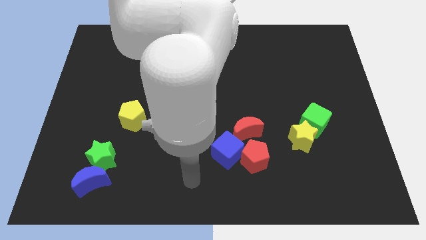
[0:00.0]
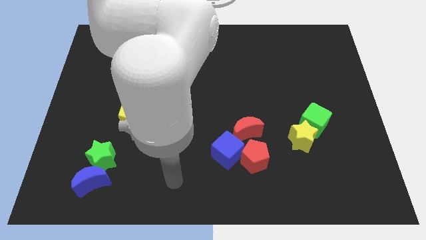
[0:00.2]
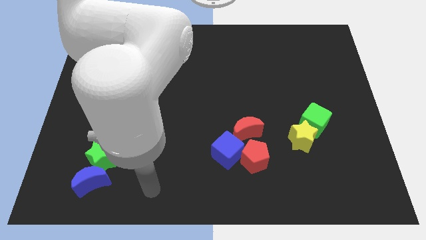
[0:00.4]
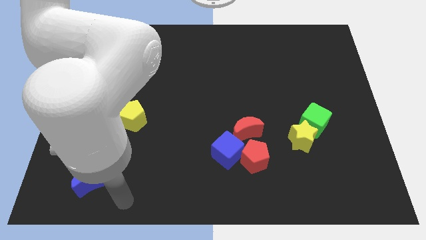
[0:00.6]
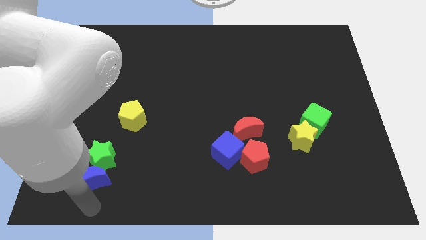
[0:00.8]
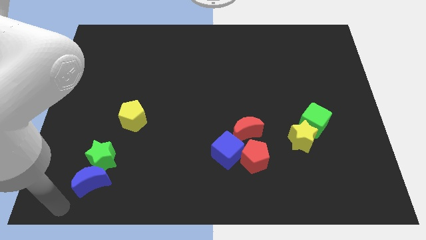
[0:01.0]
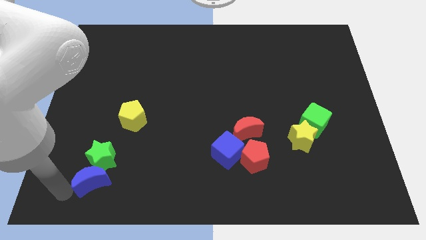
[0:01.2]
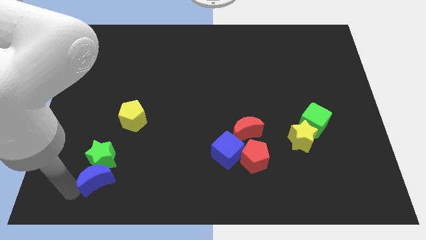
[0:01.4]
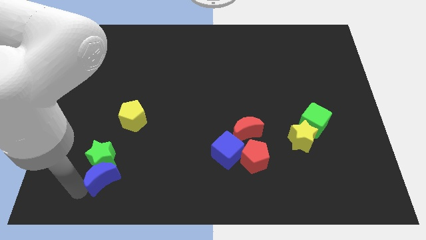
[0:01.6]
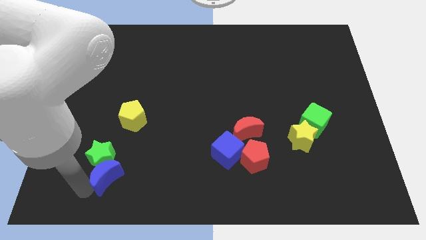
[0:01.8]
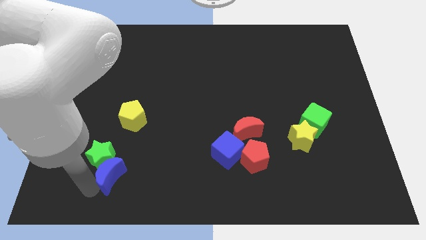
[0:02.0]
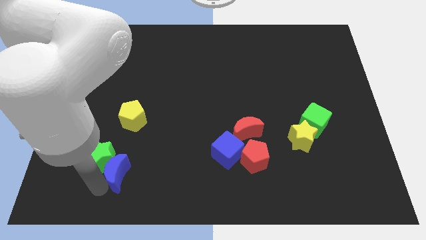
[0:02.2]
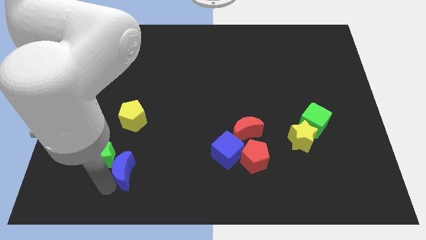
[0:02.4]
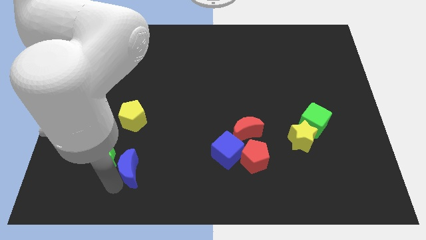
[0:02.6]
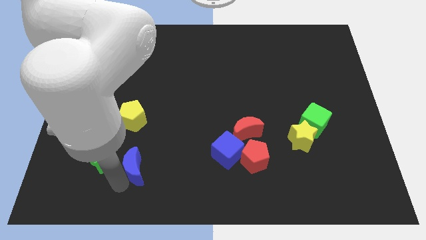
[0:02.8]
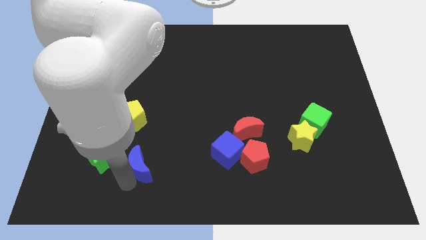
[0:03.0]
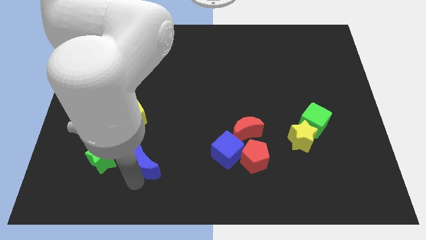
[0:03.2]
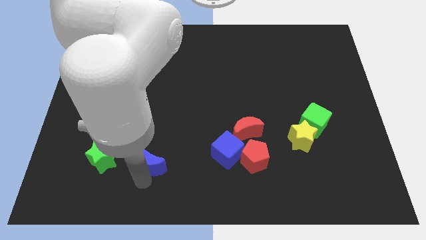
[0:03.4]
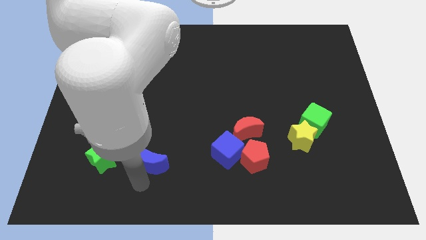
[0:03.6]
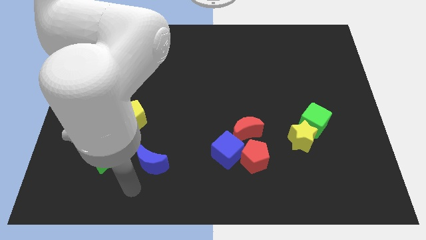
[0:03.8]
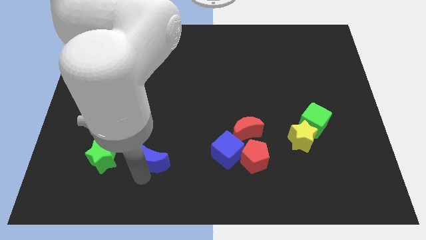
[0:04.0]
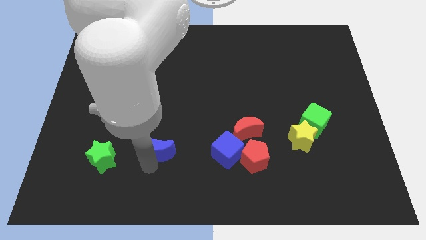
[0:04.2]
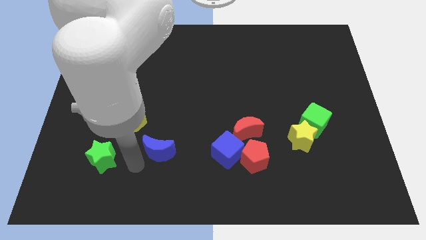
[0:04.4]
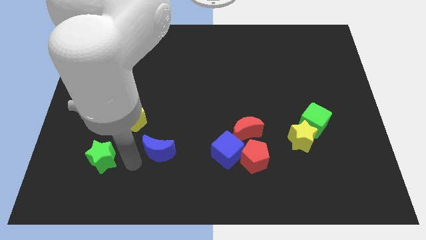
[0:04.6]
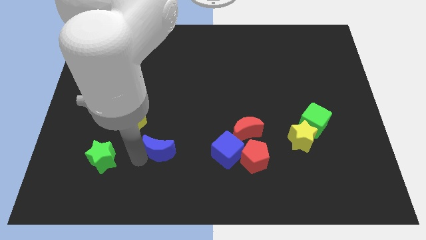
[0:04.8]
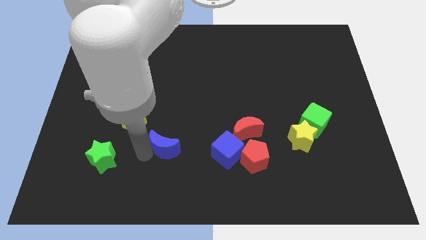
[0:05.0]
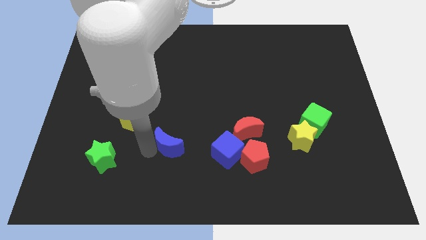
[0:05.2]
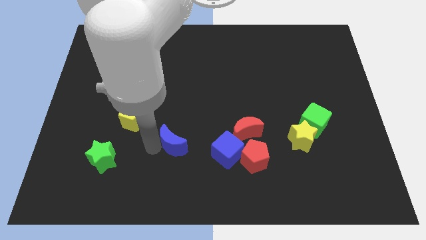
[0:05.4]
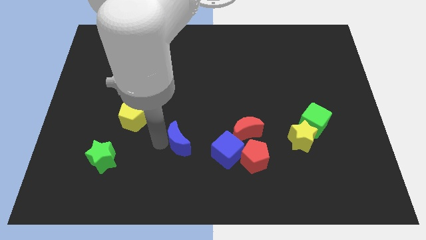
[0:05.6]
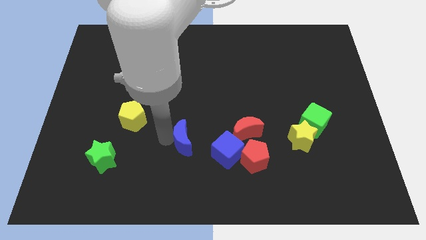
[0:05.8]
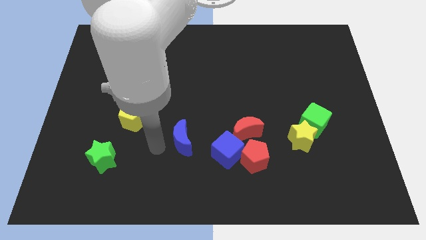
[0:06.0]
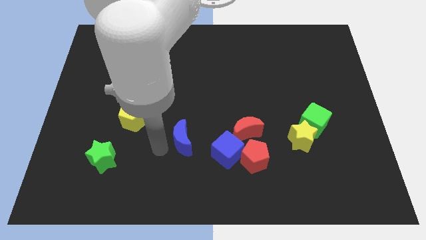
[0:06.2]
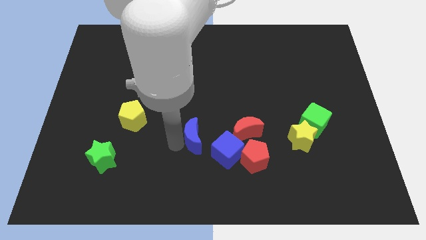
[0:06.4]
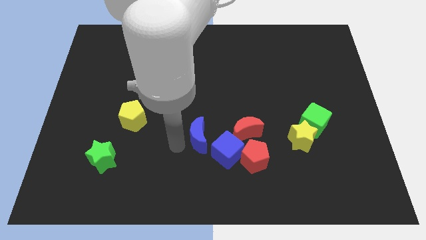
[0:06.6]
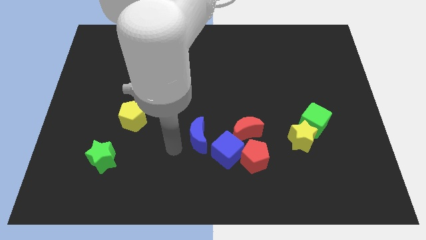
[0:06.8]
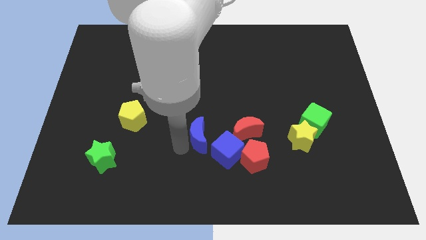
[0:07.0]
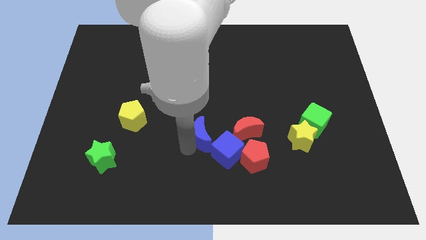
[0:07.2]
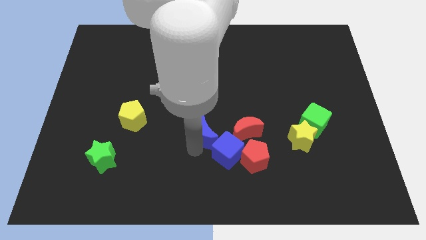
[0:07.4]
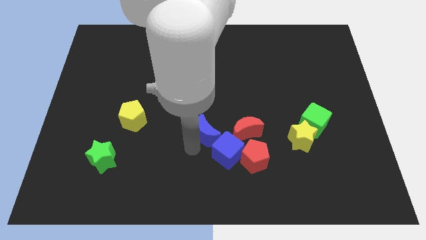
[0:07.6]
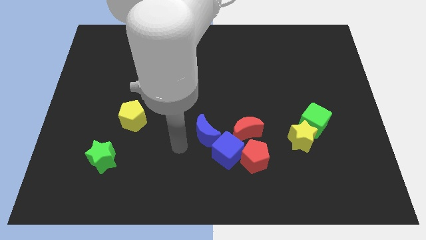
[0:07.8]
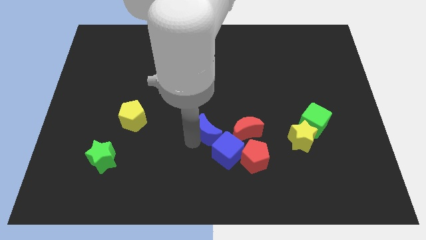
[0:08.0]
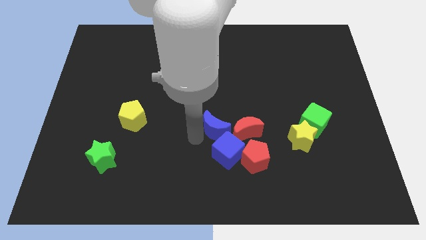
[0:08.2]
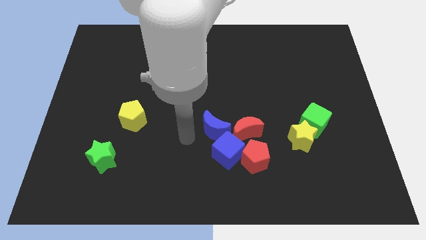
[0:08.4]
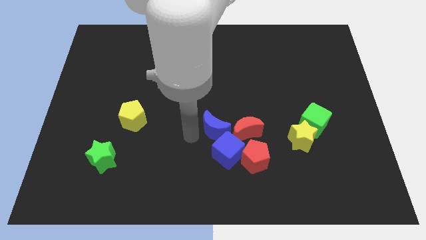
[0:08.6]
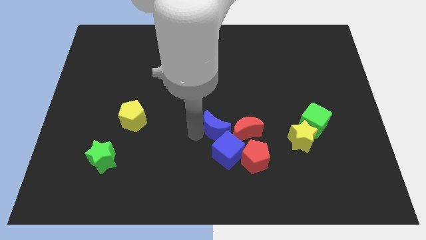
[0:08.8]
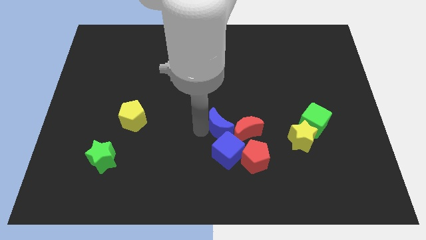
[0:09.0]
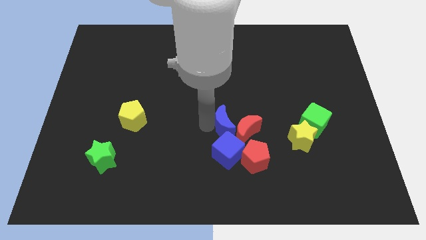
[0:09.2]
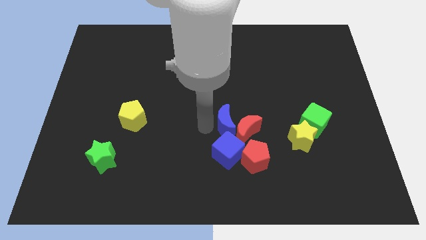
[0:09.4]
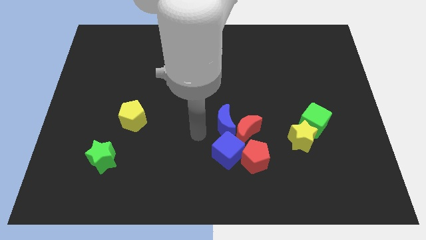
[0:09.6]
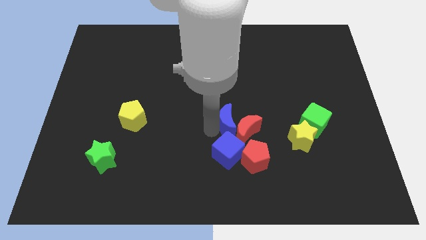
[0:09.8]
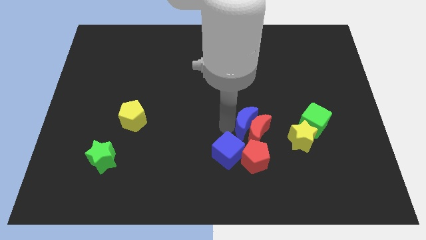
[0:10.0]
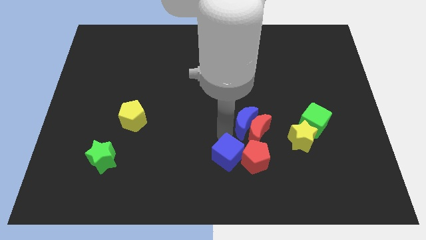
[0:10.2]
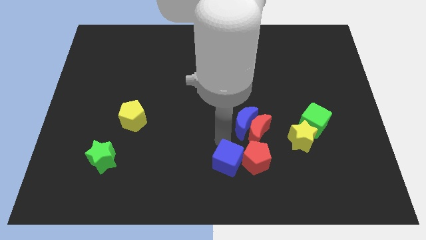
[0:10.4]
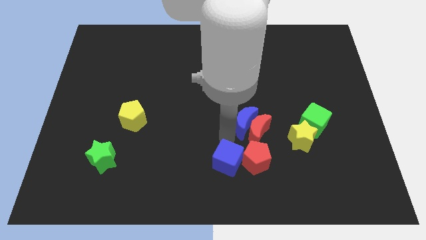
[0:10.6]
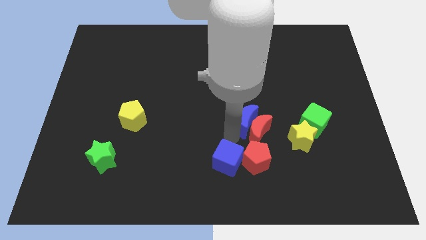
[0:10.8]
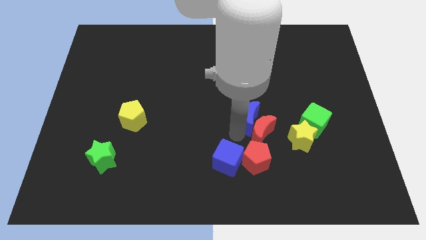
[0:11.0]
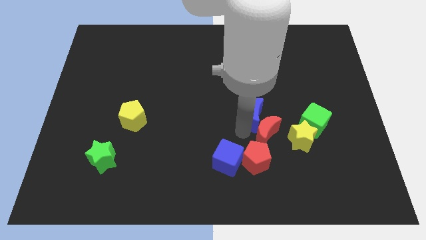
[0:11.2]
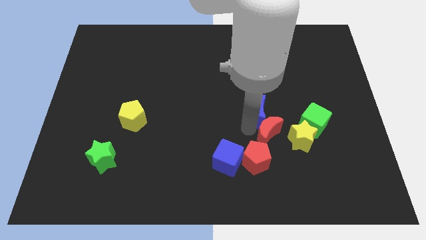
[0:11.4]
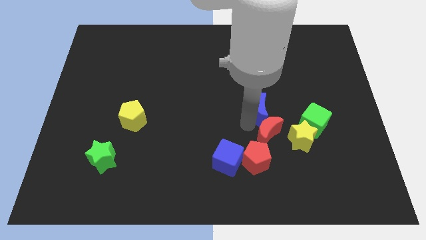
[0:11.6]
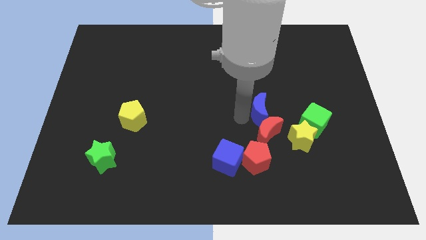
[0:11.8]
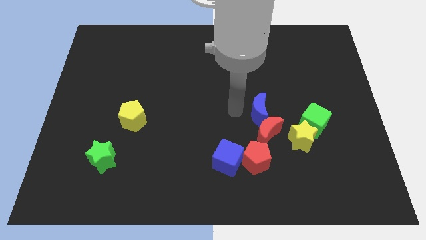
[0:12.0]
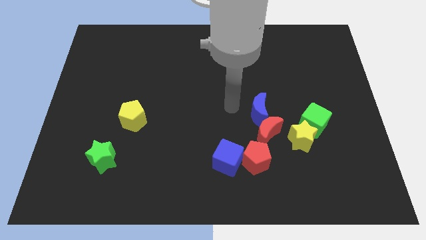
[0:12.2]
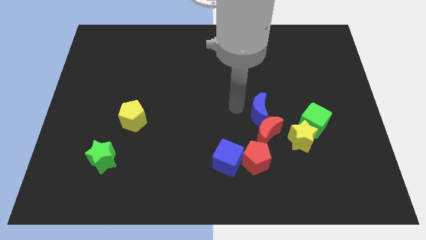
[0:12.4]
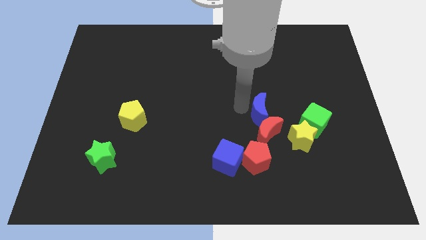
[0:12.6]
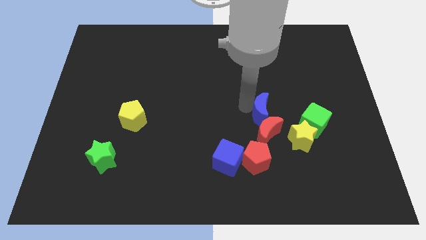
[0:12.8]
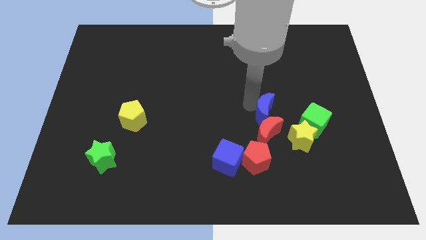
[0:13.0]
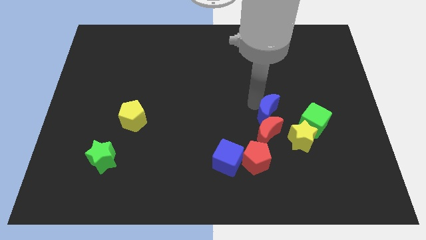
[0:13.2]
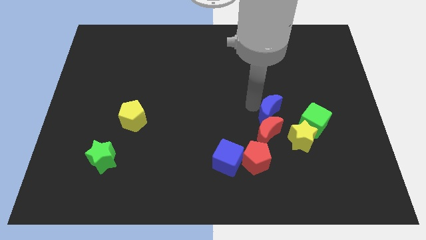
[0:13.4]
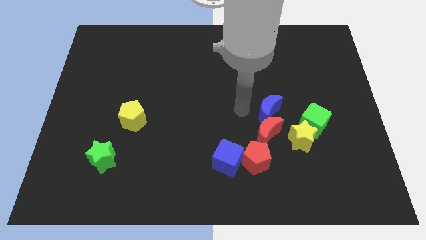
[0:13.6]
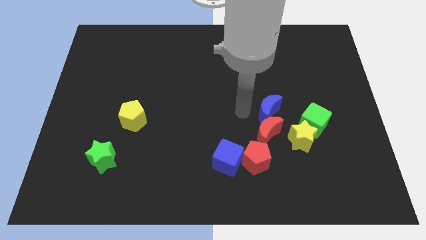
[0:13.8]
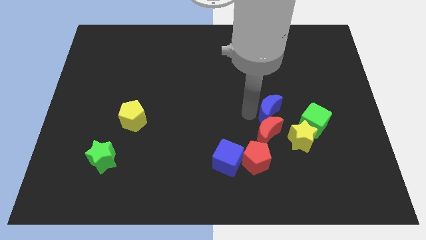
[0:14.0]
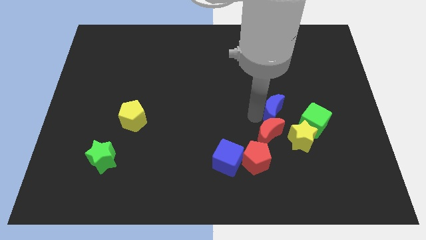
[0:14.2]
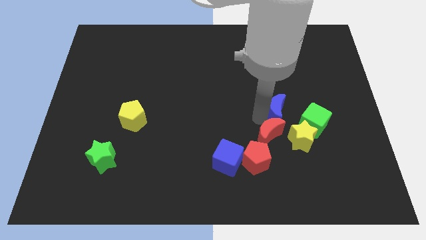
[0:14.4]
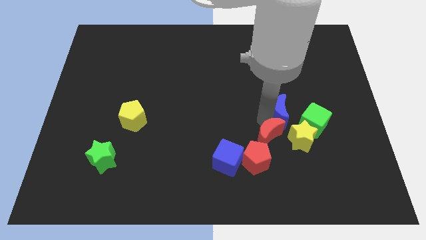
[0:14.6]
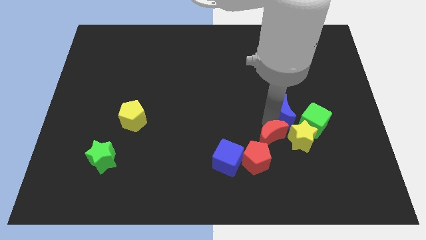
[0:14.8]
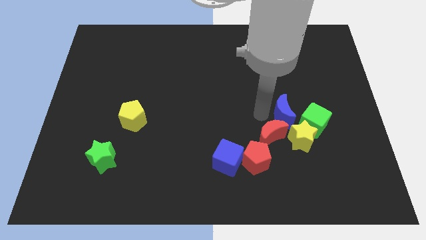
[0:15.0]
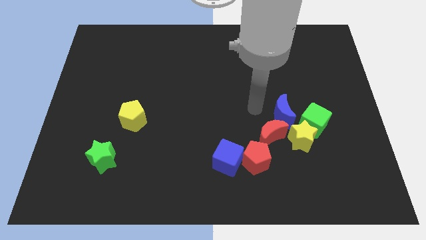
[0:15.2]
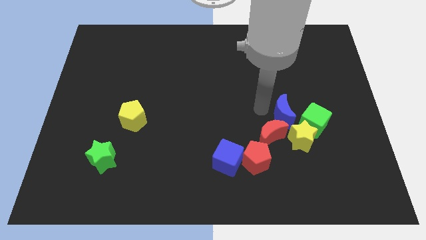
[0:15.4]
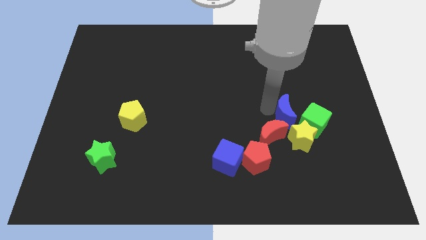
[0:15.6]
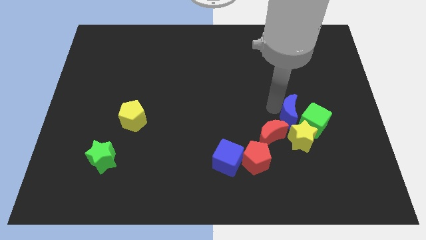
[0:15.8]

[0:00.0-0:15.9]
push the blue moon to the green cube
